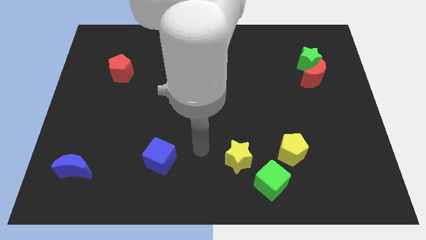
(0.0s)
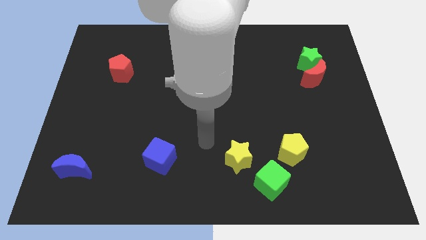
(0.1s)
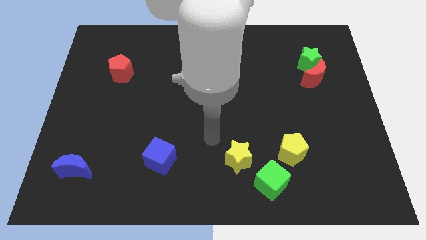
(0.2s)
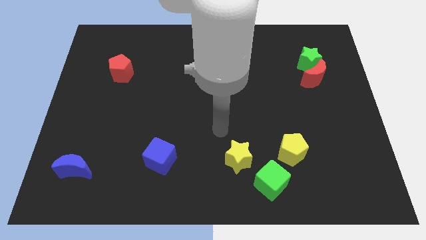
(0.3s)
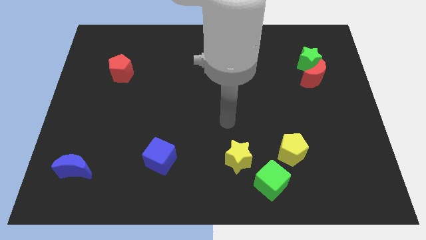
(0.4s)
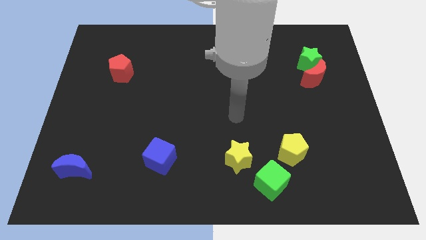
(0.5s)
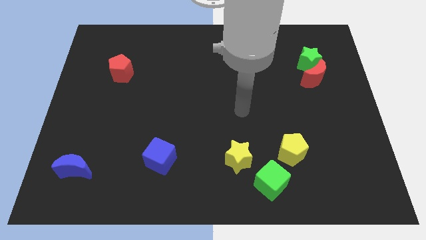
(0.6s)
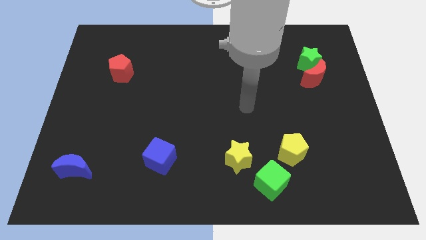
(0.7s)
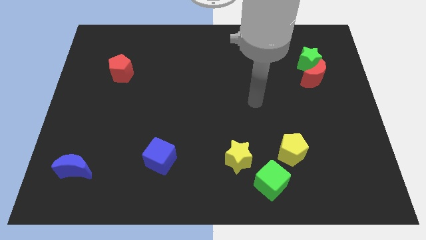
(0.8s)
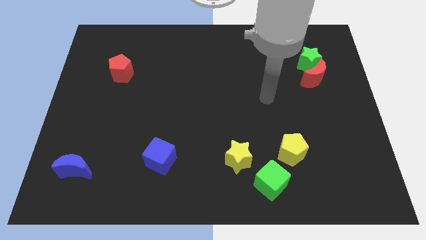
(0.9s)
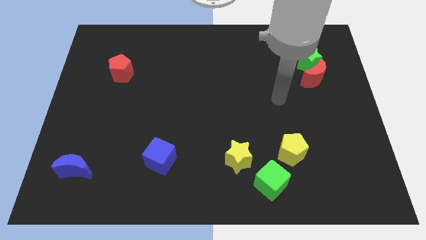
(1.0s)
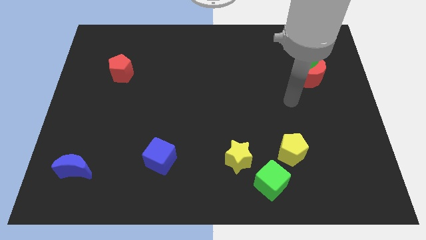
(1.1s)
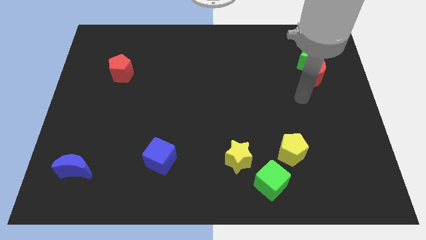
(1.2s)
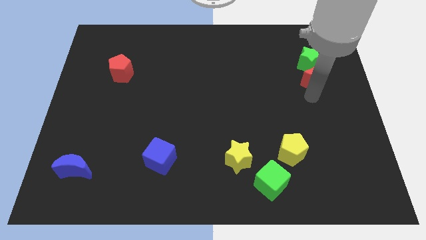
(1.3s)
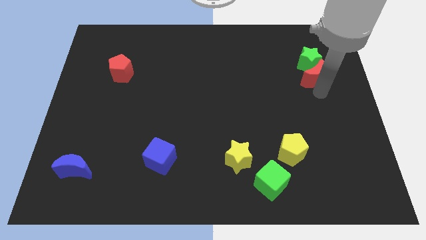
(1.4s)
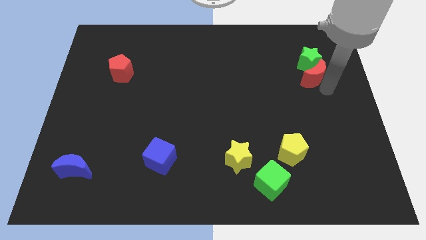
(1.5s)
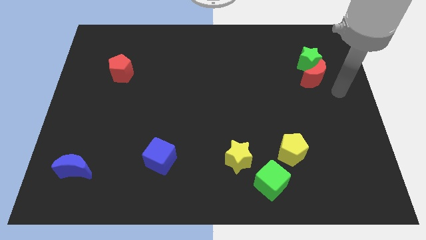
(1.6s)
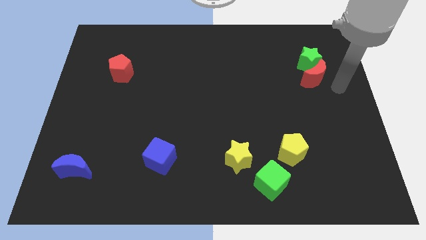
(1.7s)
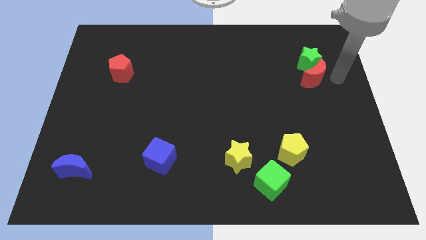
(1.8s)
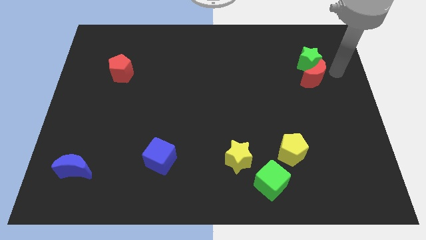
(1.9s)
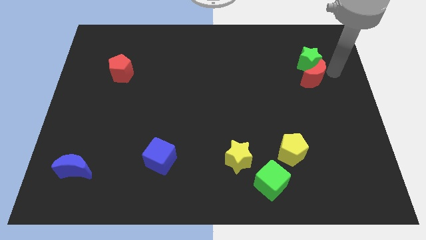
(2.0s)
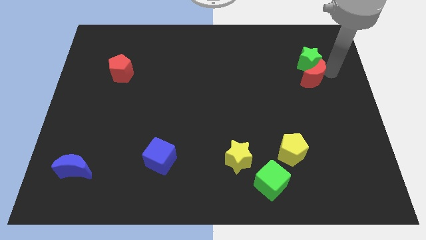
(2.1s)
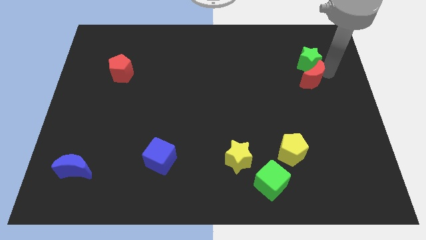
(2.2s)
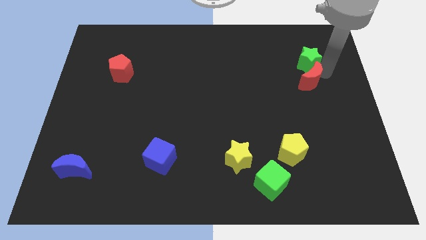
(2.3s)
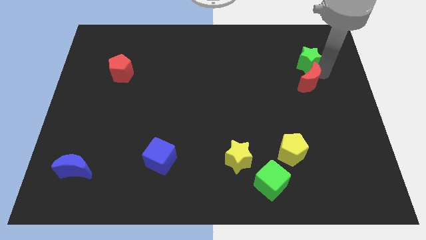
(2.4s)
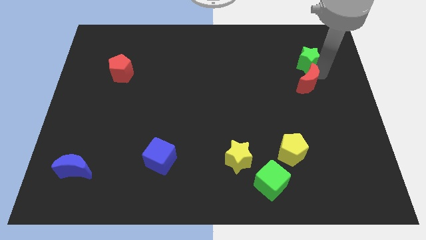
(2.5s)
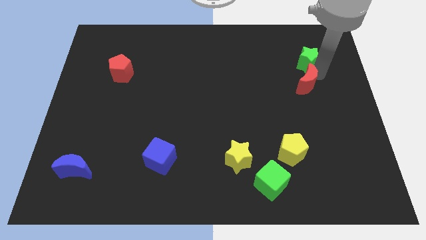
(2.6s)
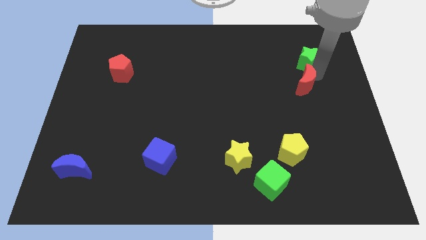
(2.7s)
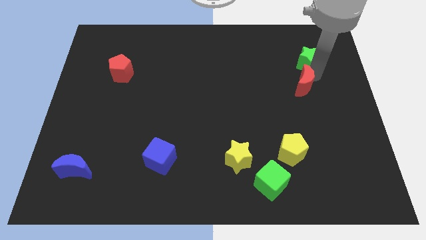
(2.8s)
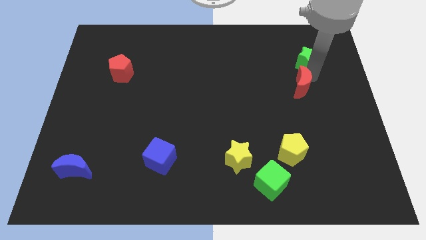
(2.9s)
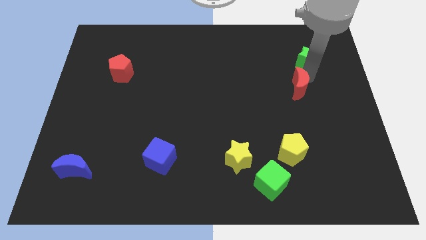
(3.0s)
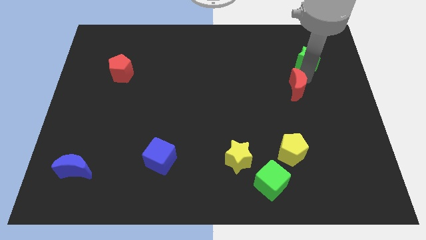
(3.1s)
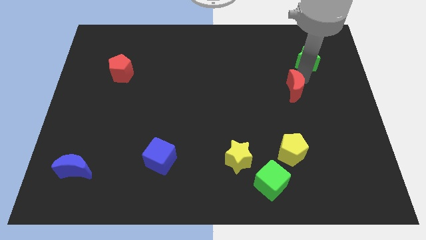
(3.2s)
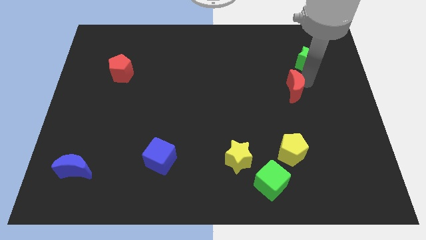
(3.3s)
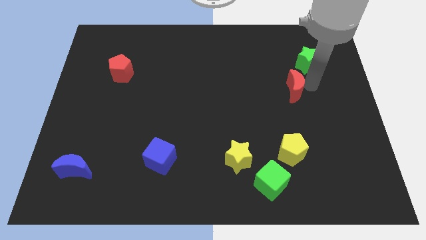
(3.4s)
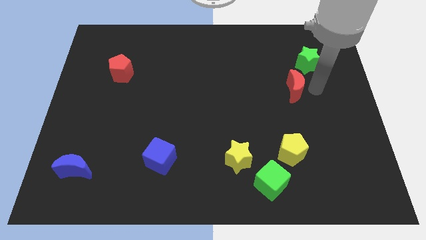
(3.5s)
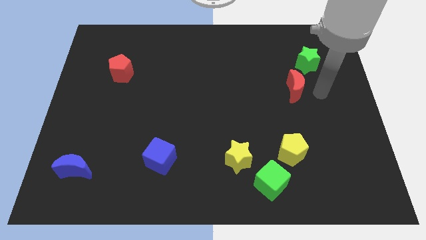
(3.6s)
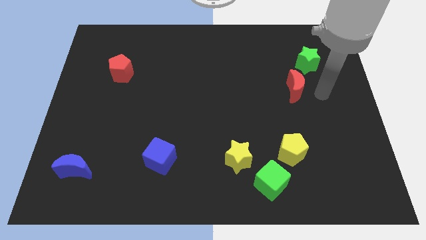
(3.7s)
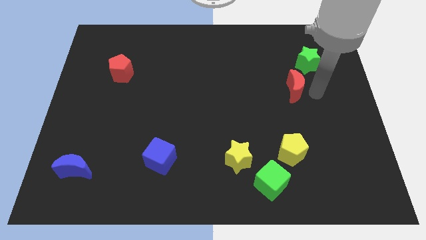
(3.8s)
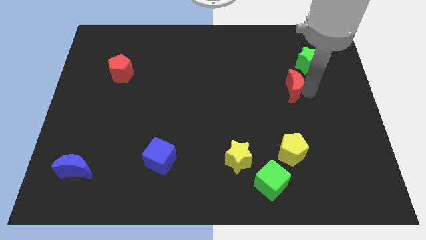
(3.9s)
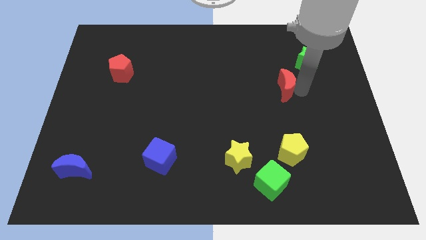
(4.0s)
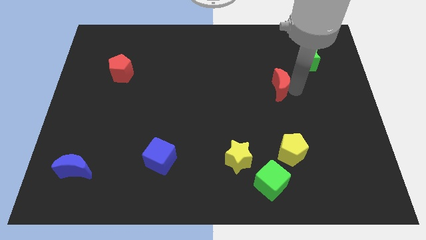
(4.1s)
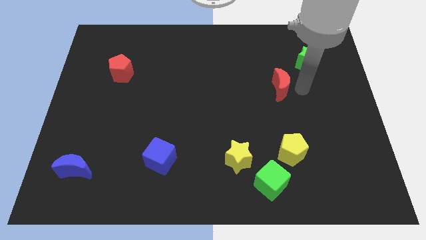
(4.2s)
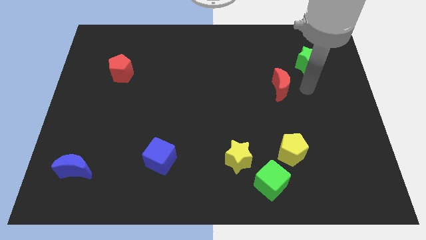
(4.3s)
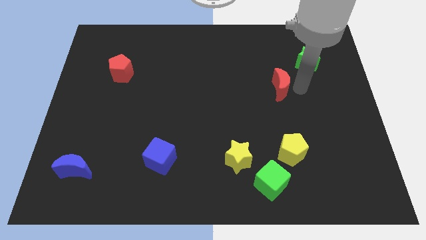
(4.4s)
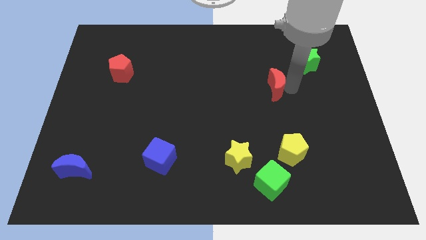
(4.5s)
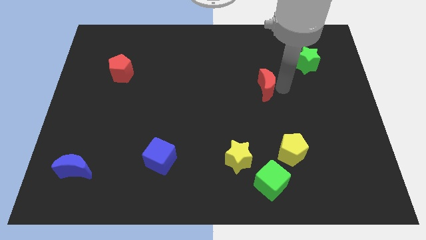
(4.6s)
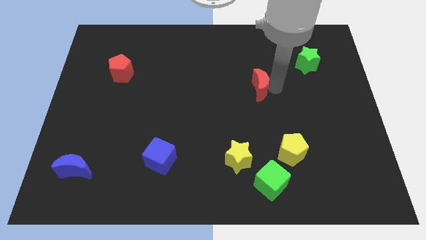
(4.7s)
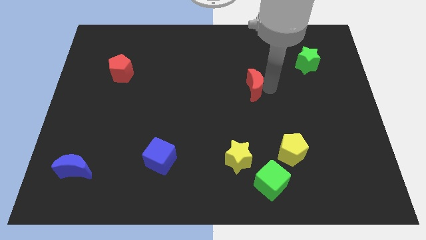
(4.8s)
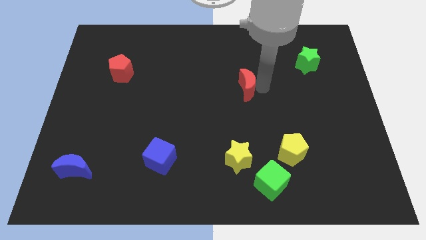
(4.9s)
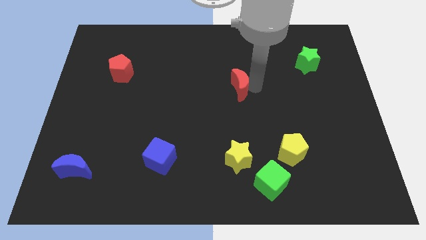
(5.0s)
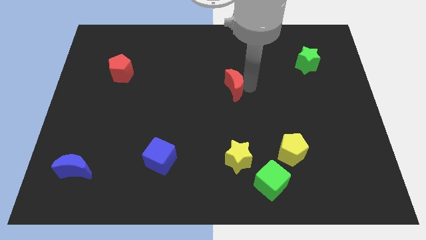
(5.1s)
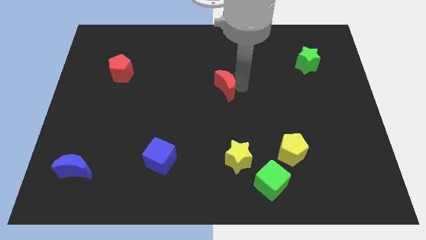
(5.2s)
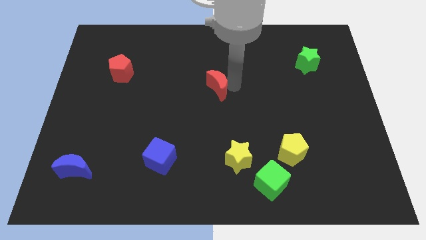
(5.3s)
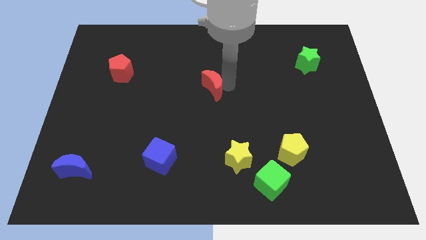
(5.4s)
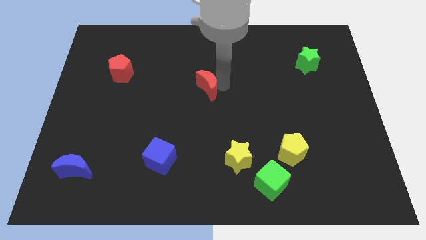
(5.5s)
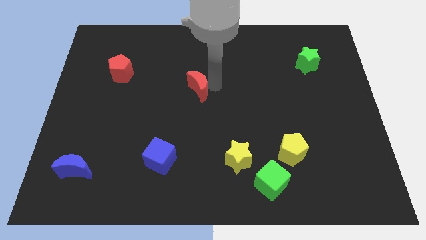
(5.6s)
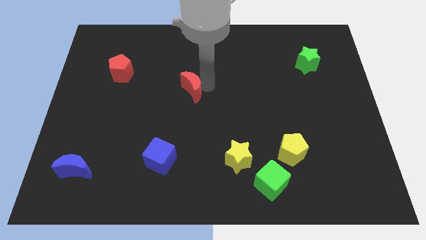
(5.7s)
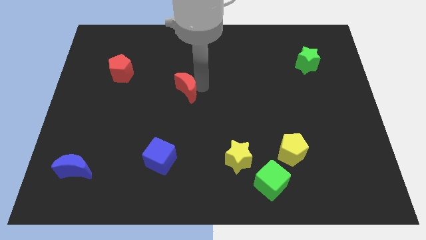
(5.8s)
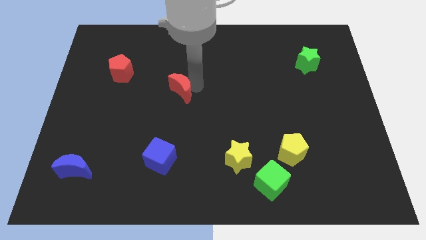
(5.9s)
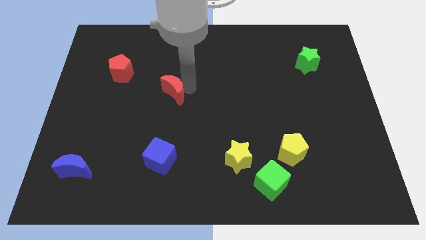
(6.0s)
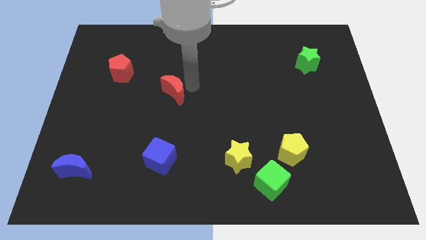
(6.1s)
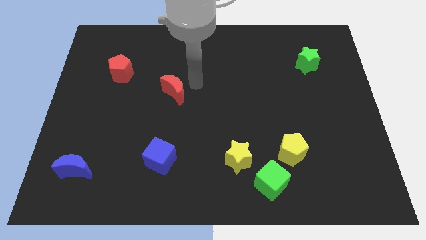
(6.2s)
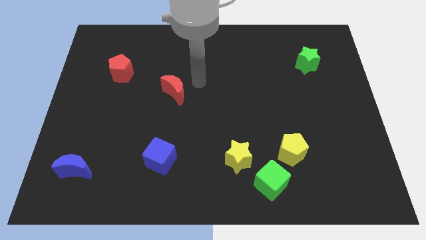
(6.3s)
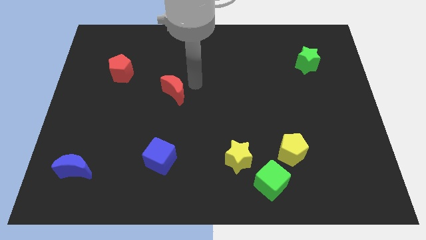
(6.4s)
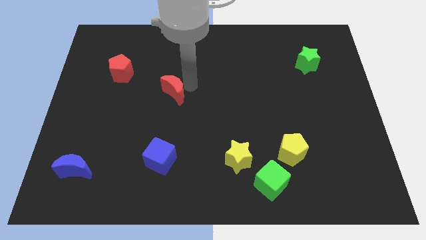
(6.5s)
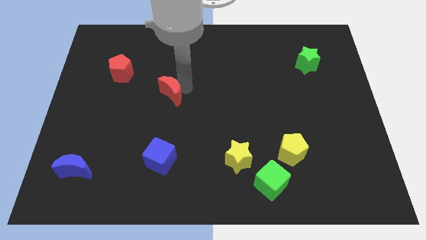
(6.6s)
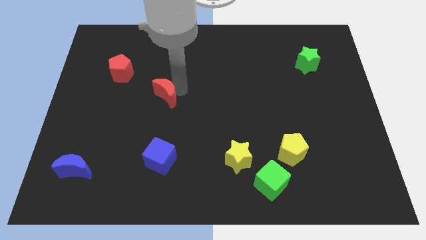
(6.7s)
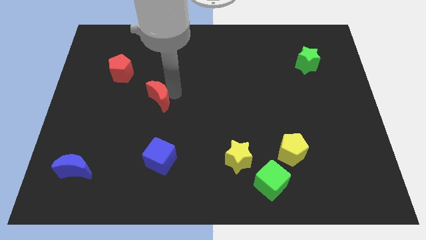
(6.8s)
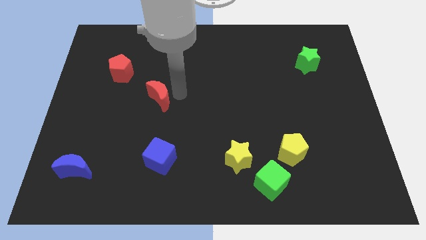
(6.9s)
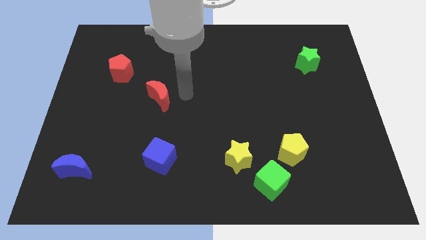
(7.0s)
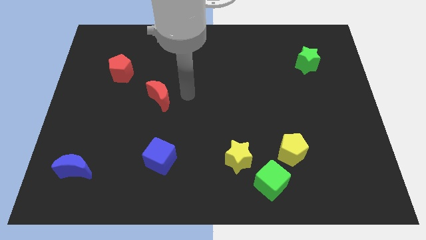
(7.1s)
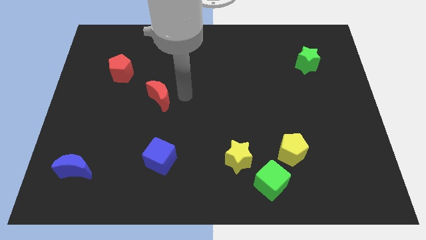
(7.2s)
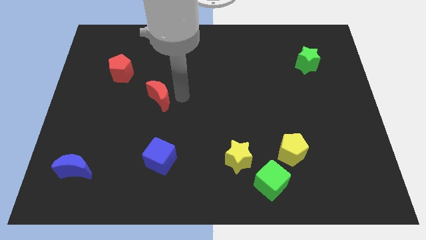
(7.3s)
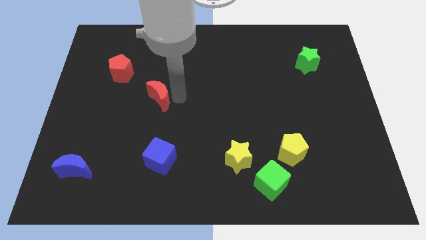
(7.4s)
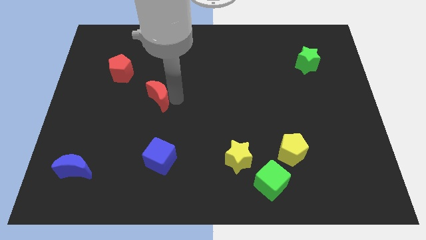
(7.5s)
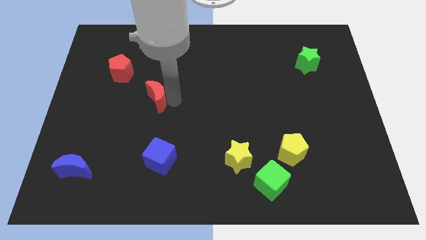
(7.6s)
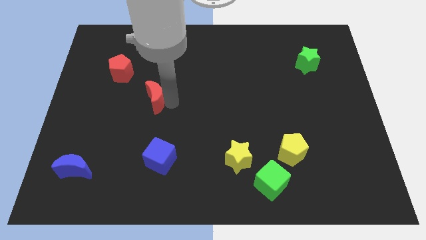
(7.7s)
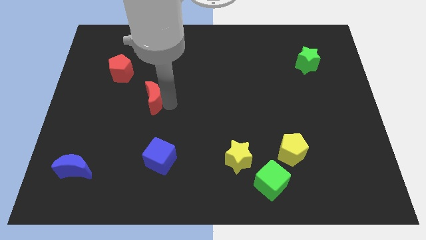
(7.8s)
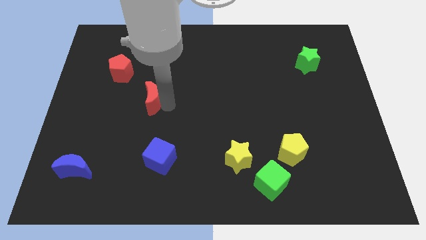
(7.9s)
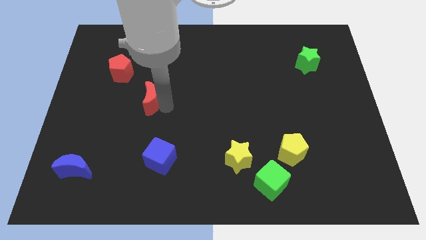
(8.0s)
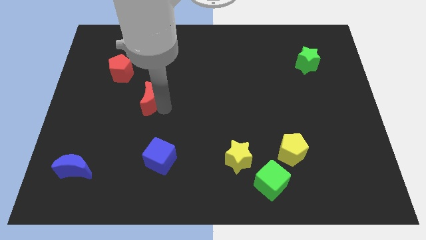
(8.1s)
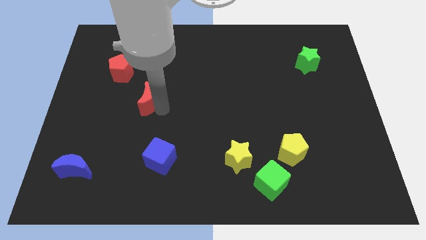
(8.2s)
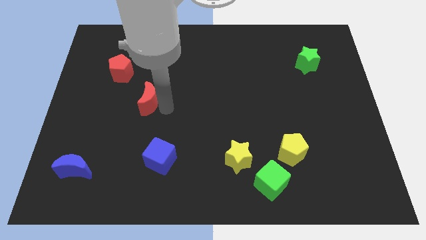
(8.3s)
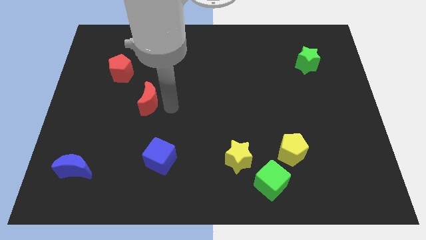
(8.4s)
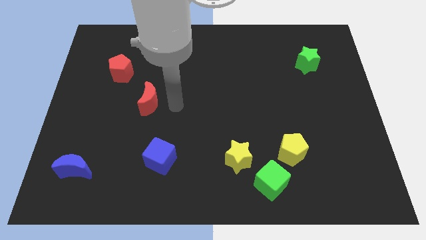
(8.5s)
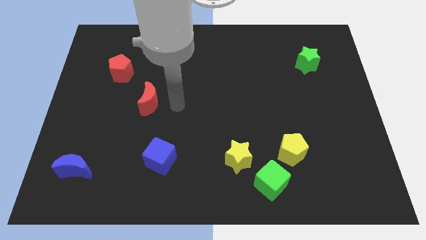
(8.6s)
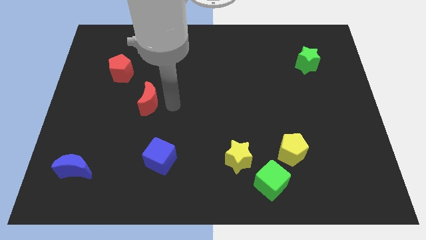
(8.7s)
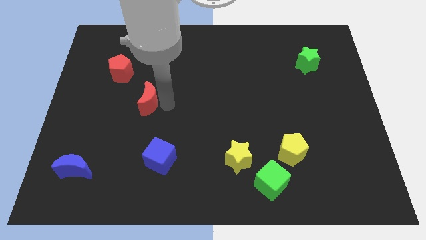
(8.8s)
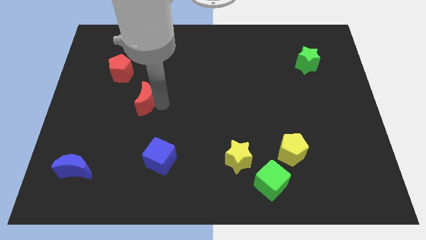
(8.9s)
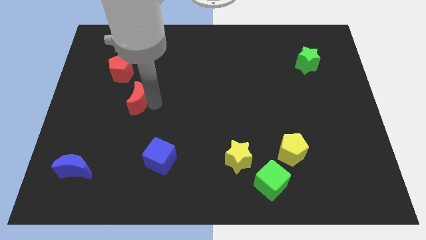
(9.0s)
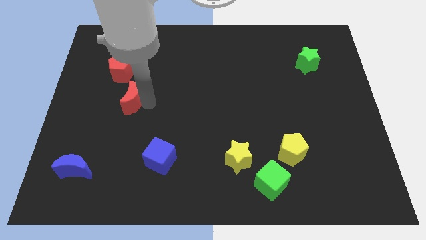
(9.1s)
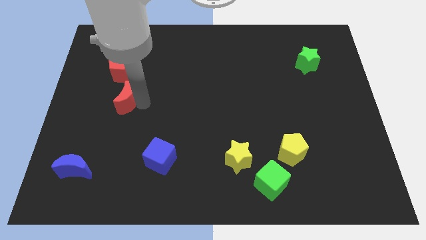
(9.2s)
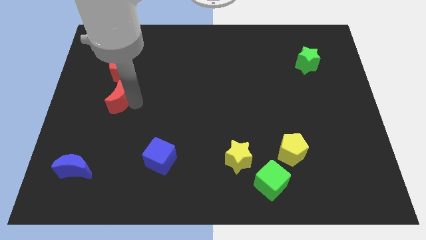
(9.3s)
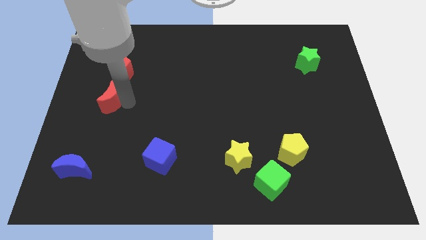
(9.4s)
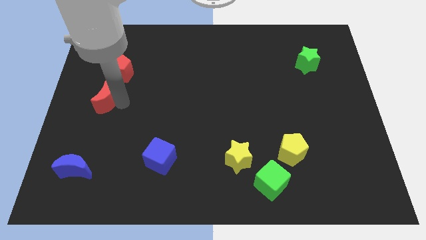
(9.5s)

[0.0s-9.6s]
put the red moon to the left side
